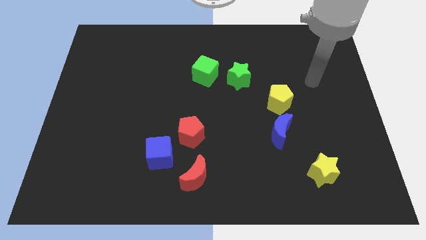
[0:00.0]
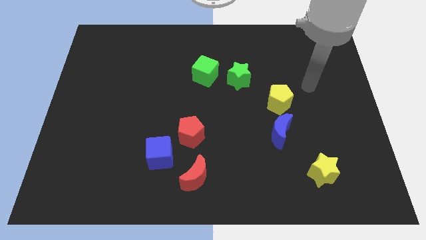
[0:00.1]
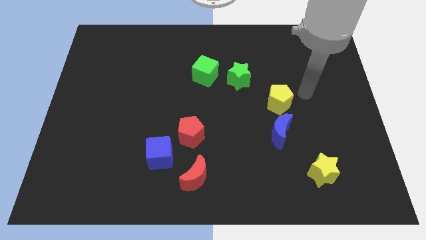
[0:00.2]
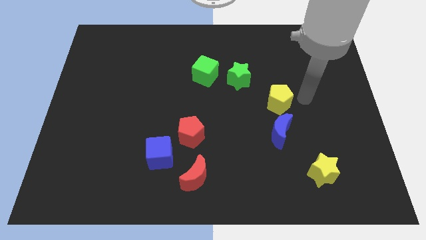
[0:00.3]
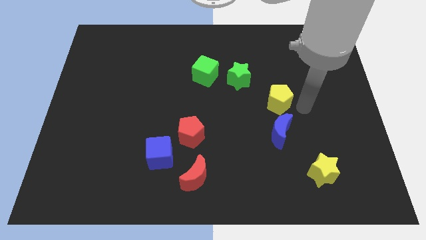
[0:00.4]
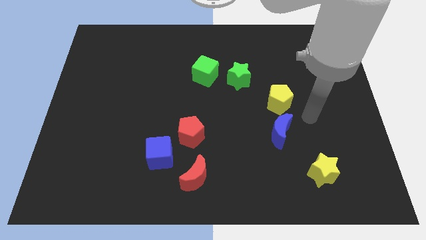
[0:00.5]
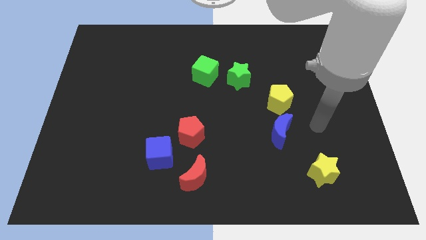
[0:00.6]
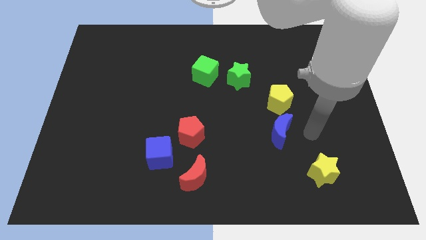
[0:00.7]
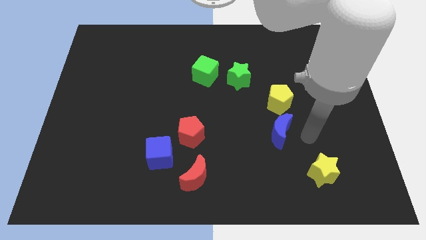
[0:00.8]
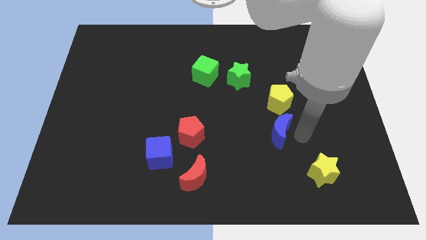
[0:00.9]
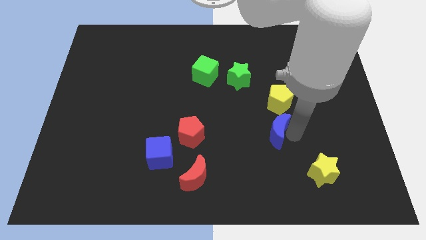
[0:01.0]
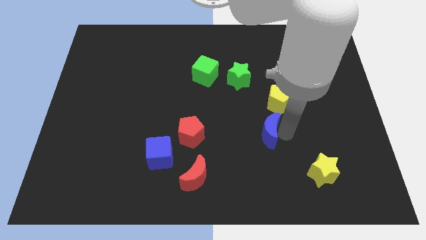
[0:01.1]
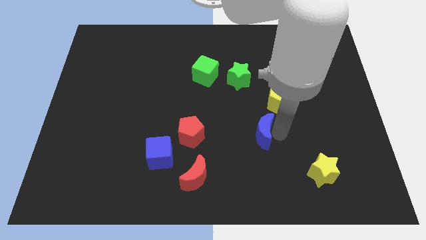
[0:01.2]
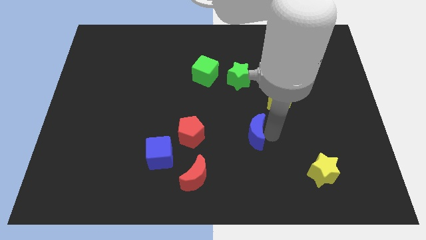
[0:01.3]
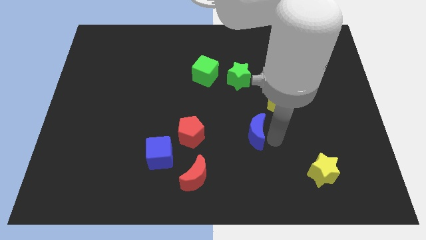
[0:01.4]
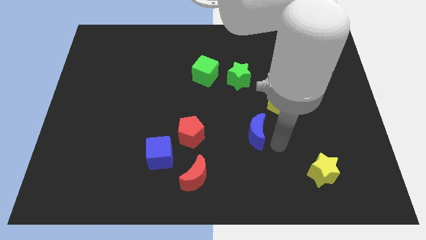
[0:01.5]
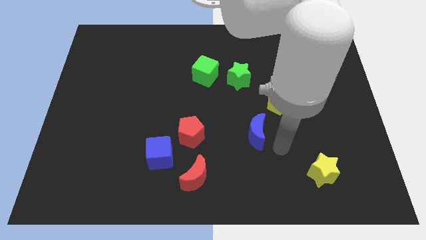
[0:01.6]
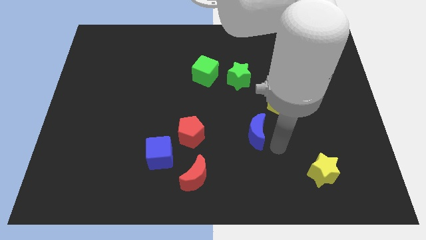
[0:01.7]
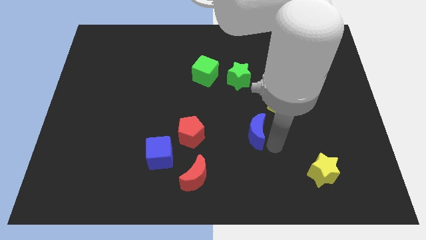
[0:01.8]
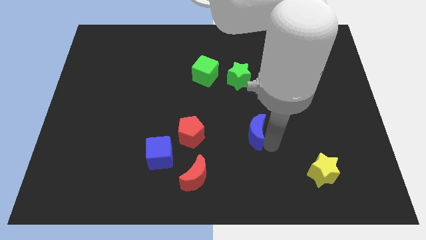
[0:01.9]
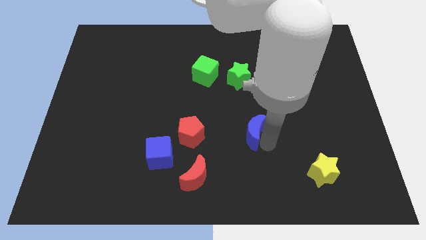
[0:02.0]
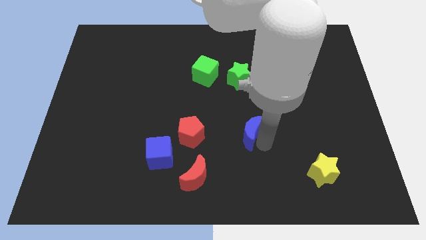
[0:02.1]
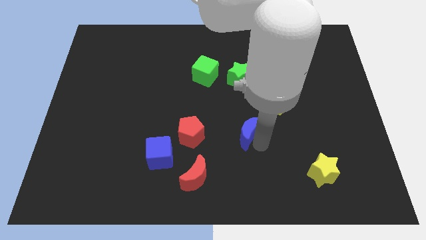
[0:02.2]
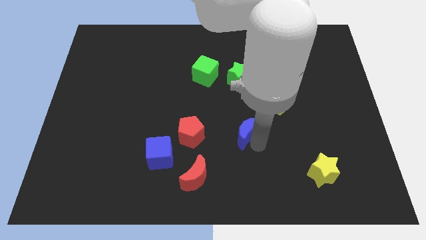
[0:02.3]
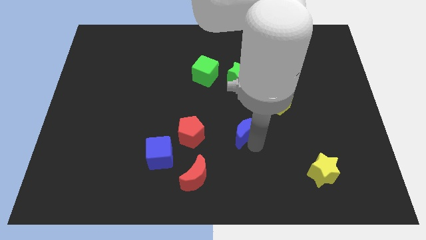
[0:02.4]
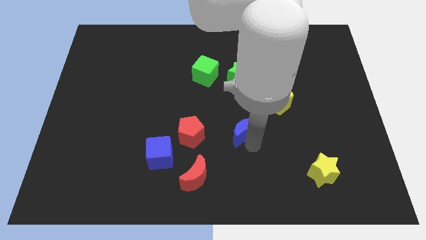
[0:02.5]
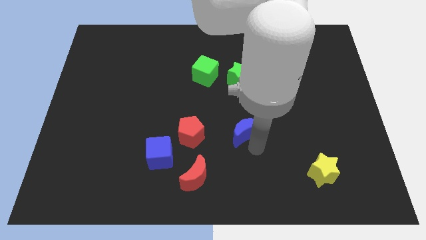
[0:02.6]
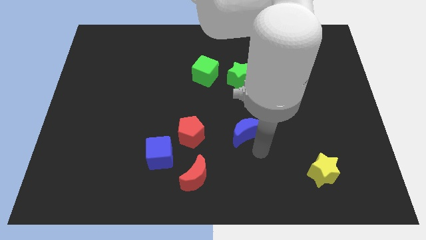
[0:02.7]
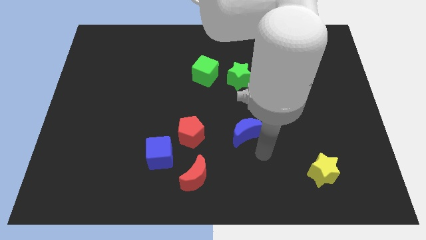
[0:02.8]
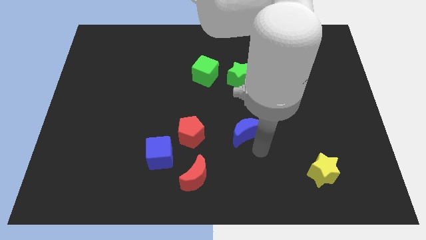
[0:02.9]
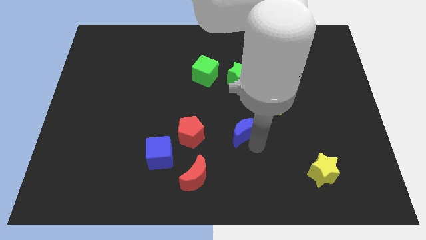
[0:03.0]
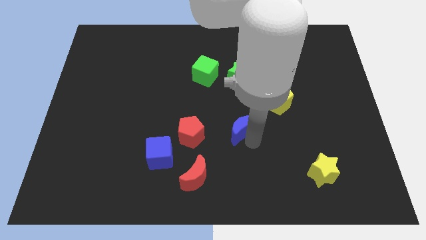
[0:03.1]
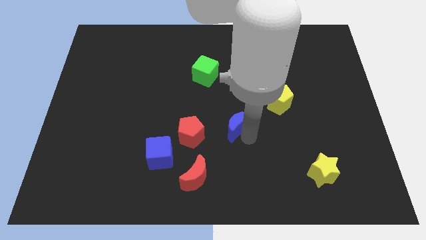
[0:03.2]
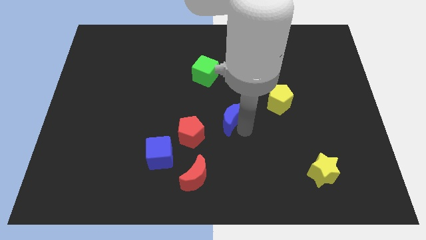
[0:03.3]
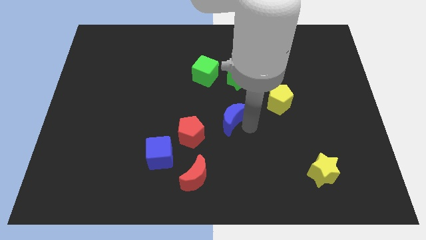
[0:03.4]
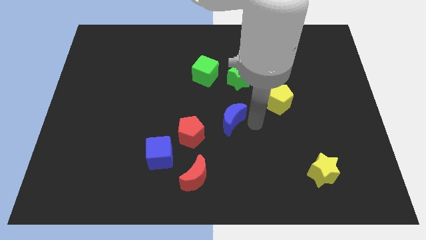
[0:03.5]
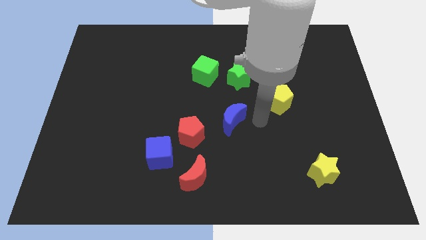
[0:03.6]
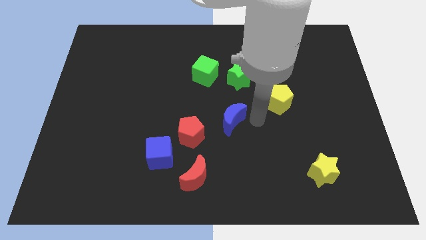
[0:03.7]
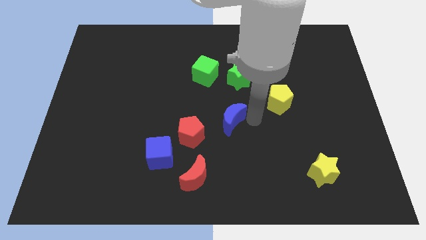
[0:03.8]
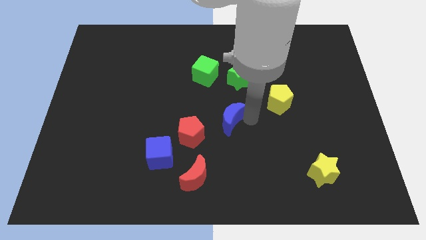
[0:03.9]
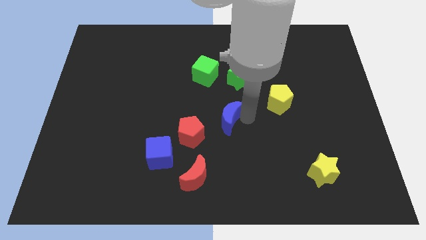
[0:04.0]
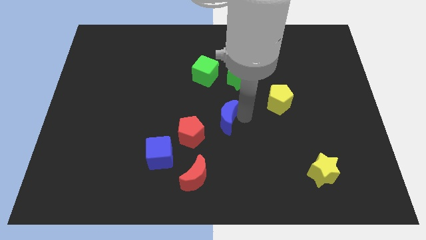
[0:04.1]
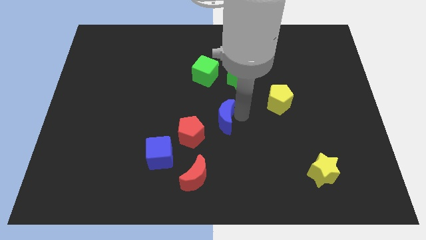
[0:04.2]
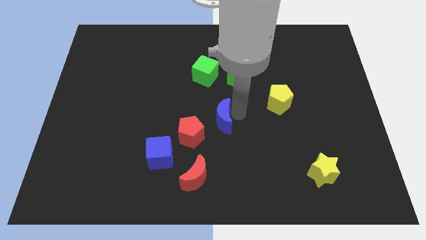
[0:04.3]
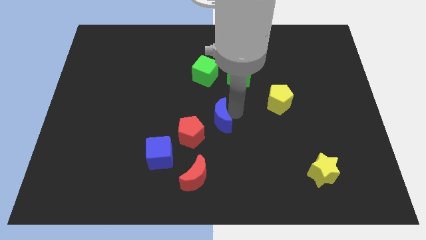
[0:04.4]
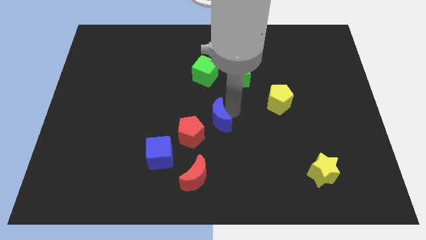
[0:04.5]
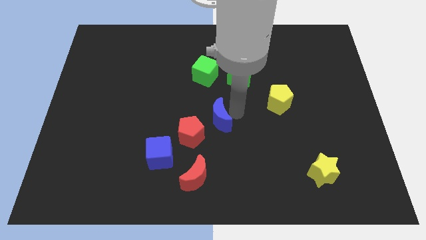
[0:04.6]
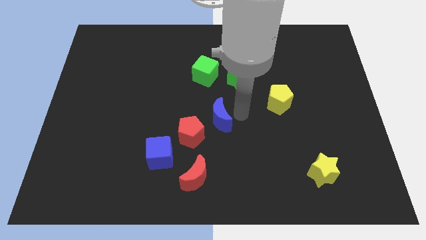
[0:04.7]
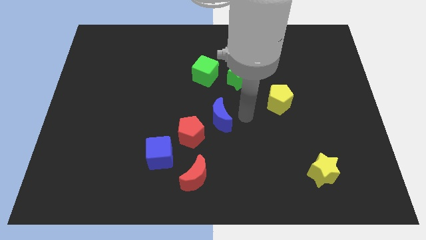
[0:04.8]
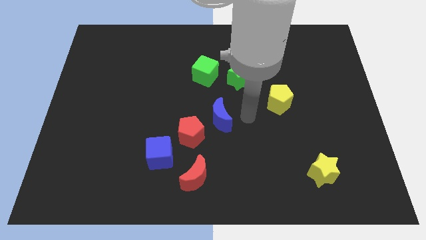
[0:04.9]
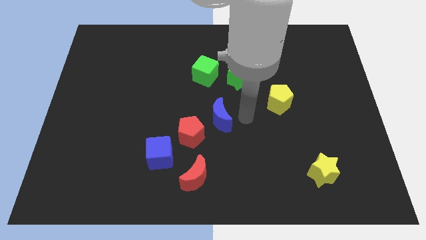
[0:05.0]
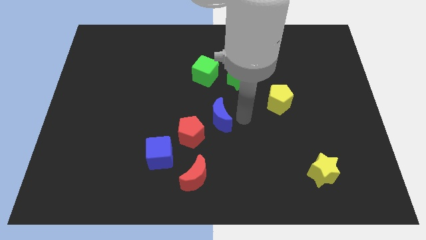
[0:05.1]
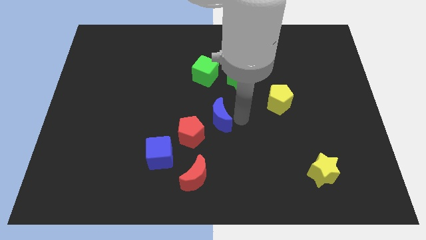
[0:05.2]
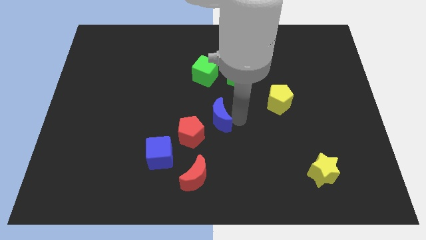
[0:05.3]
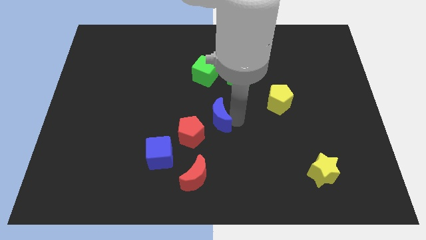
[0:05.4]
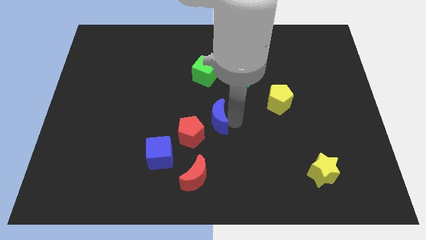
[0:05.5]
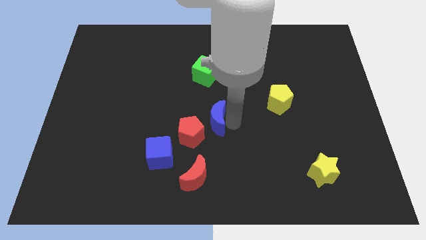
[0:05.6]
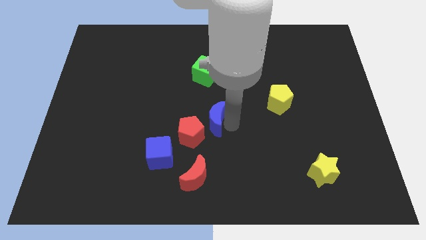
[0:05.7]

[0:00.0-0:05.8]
slide the blue moon above the red moon

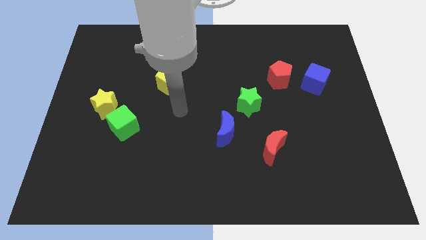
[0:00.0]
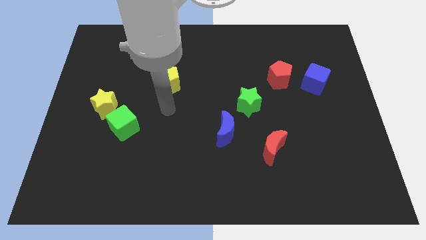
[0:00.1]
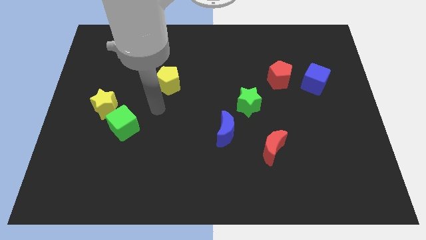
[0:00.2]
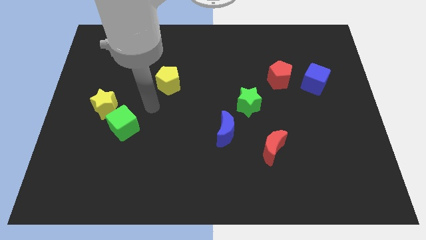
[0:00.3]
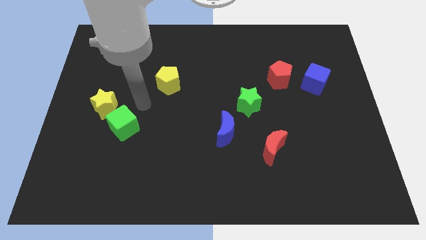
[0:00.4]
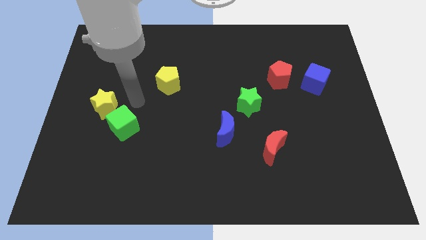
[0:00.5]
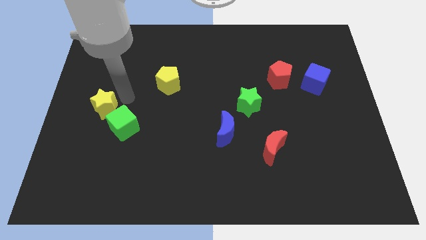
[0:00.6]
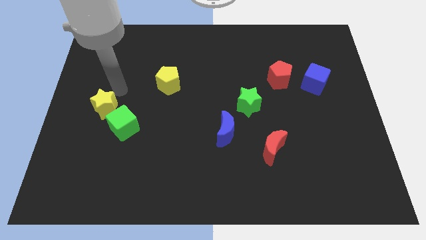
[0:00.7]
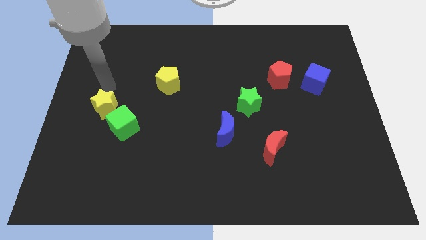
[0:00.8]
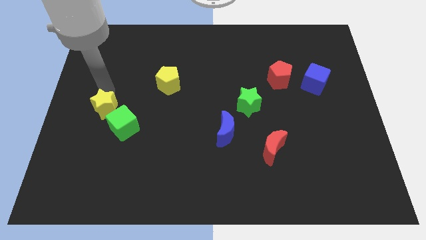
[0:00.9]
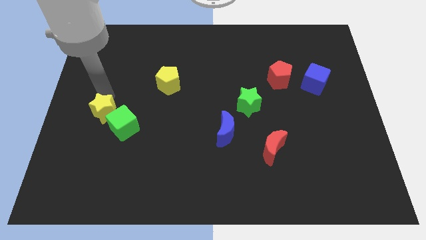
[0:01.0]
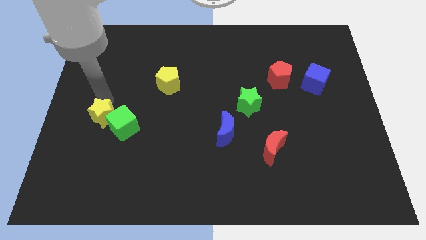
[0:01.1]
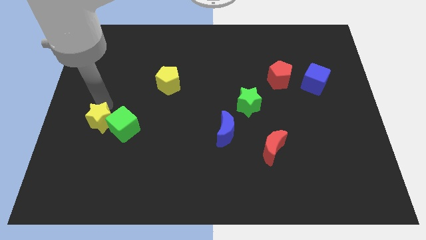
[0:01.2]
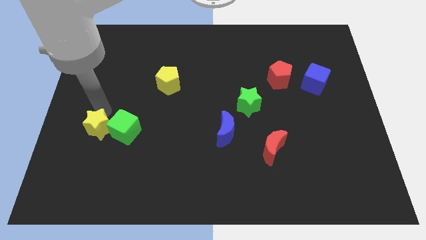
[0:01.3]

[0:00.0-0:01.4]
push the yellow star diagonally down and to the left of the green cube
